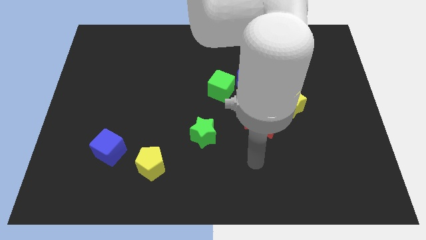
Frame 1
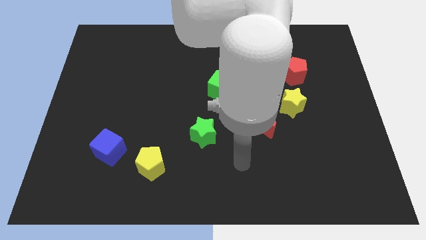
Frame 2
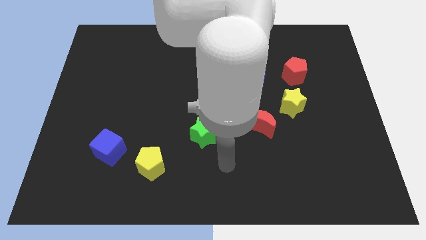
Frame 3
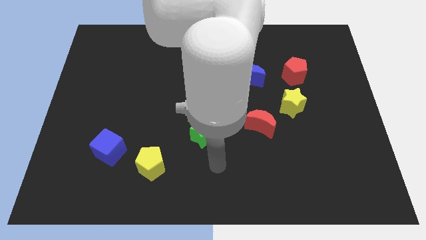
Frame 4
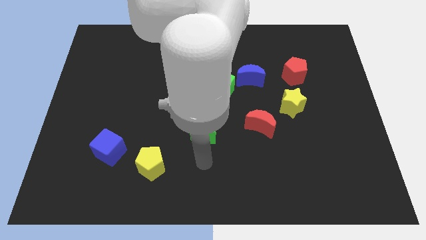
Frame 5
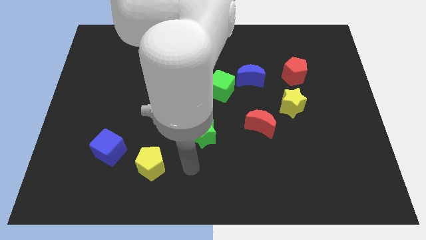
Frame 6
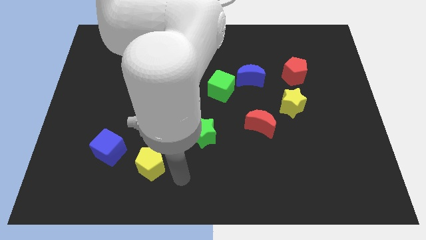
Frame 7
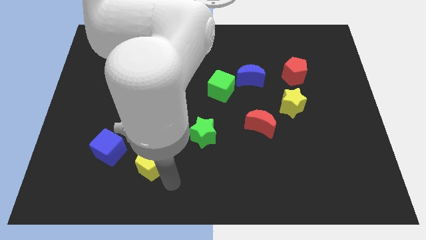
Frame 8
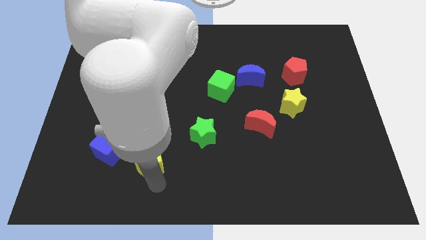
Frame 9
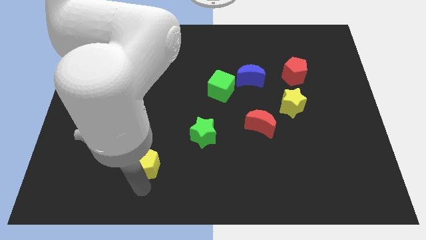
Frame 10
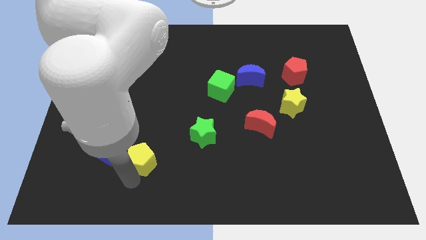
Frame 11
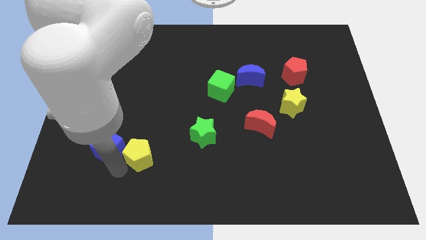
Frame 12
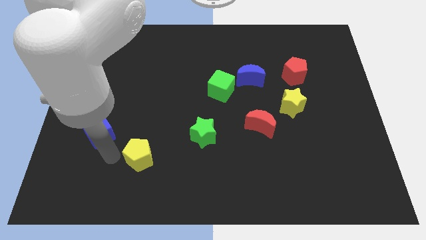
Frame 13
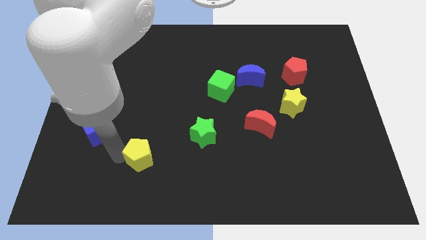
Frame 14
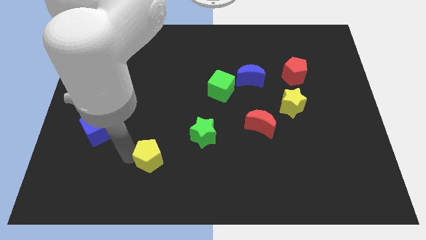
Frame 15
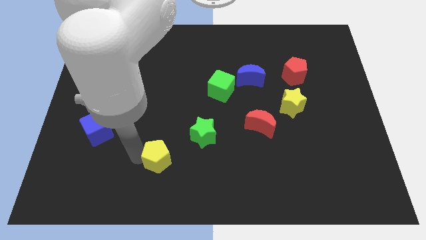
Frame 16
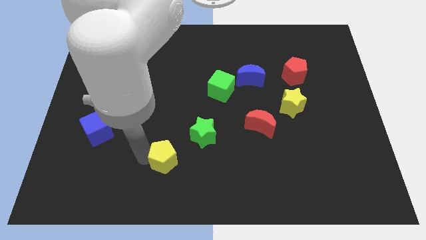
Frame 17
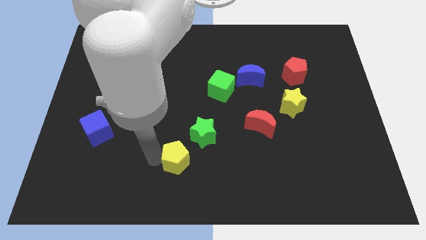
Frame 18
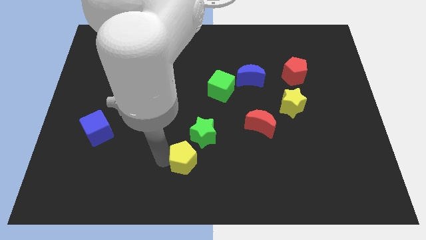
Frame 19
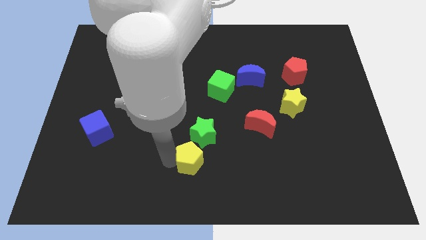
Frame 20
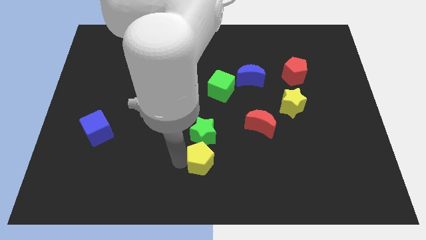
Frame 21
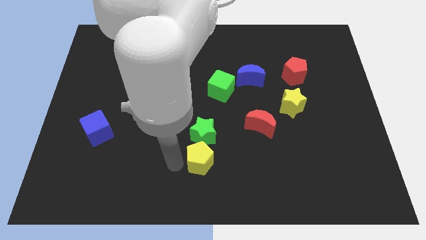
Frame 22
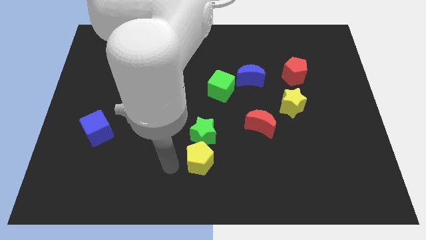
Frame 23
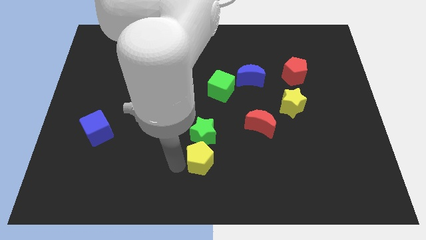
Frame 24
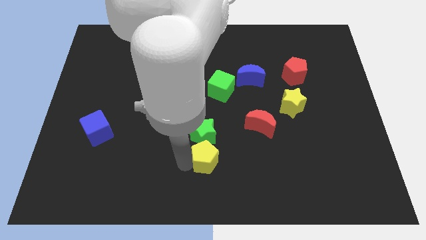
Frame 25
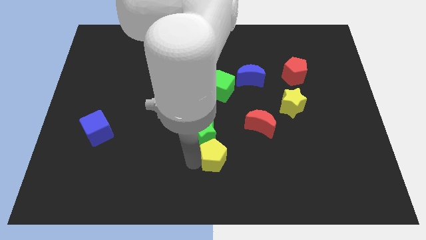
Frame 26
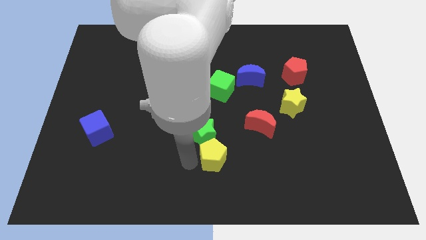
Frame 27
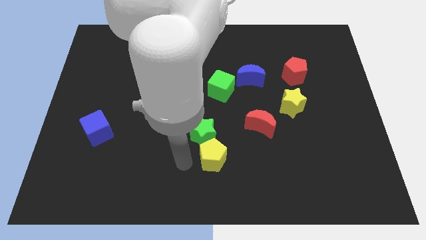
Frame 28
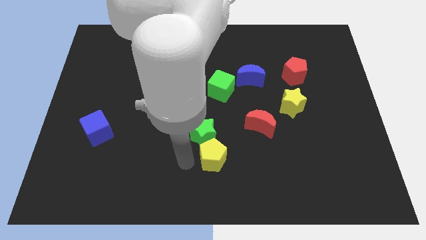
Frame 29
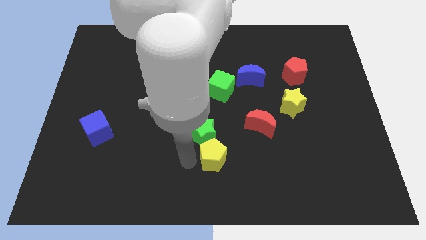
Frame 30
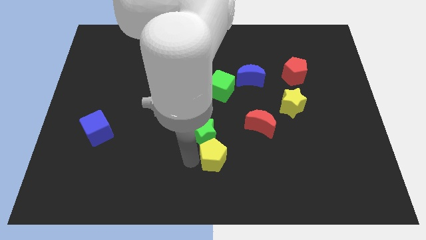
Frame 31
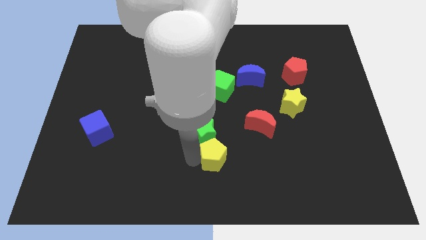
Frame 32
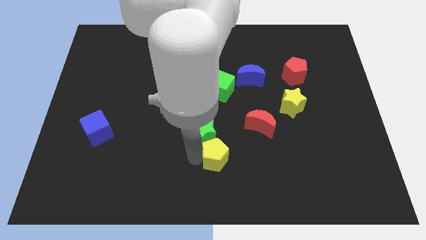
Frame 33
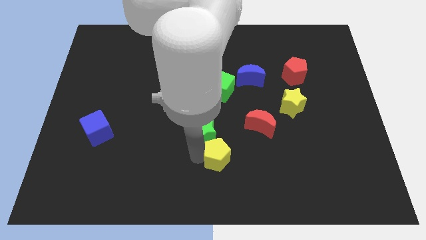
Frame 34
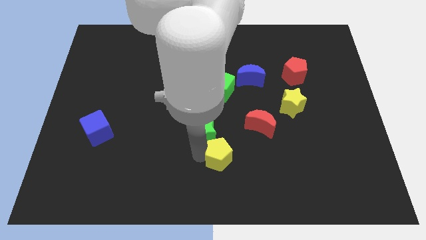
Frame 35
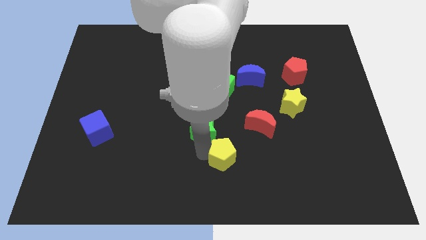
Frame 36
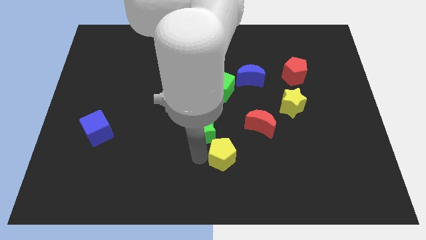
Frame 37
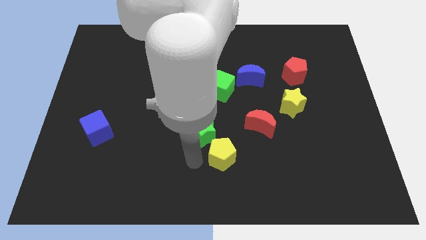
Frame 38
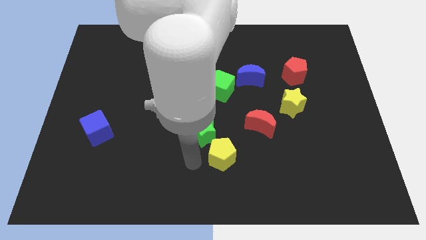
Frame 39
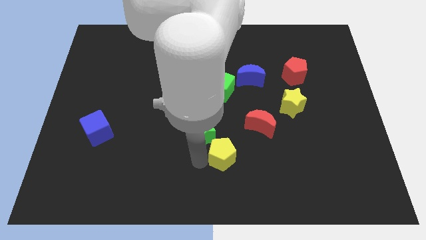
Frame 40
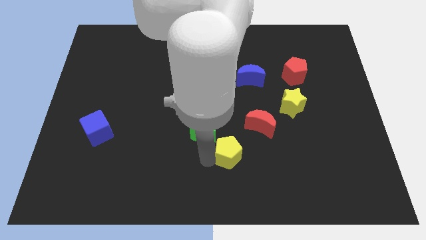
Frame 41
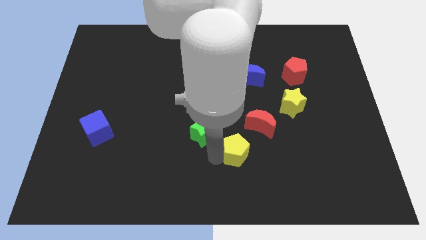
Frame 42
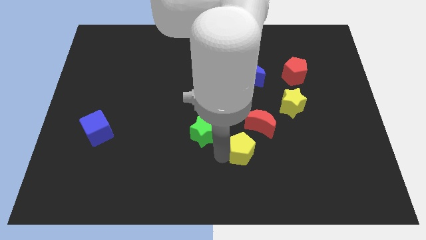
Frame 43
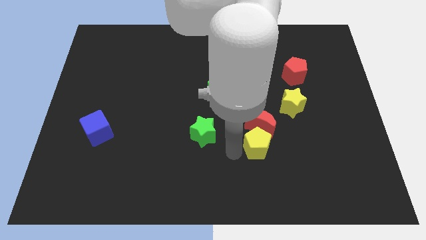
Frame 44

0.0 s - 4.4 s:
push the yellow pentagon to the bottom right of the red moon

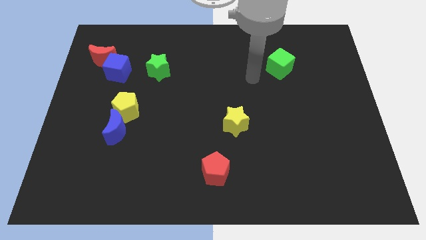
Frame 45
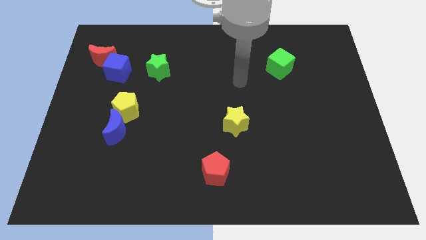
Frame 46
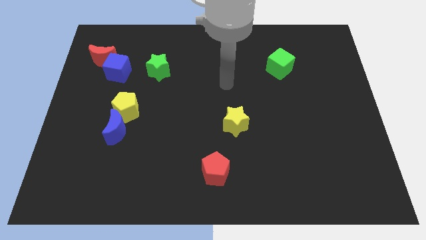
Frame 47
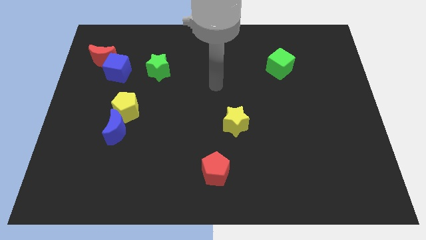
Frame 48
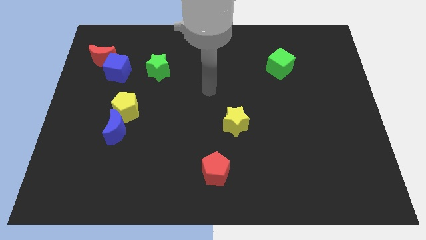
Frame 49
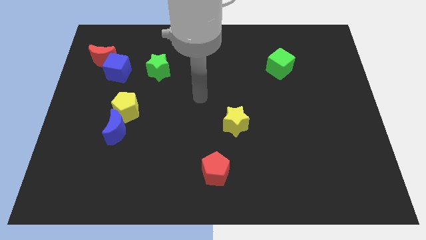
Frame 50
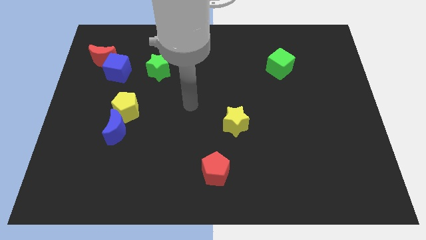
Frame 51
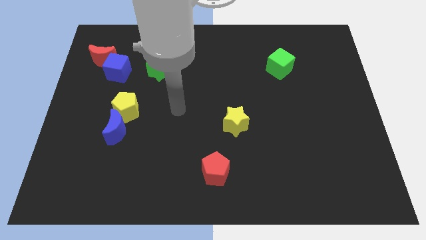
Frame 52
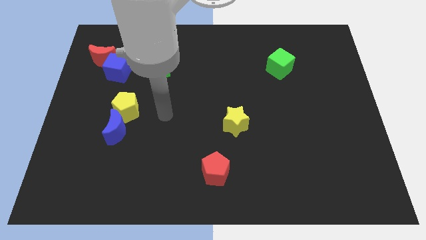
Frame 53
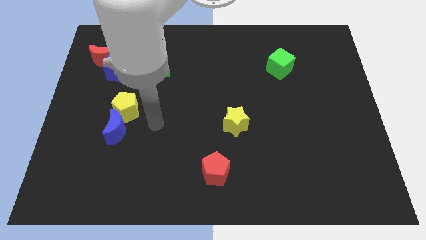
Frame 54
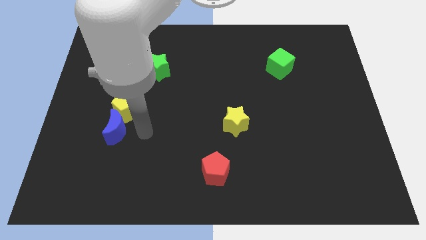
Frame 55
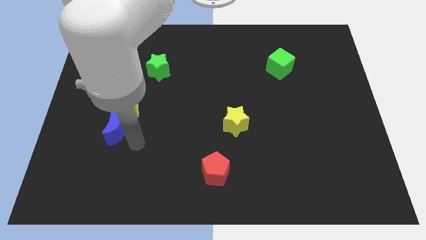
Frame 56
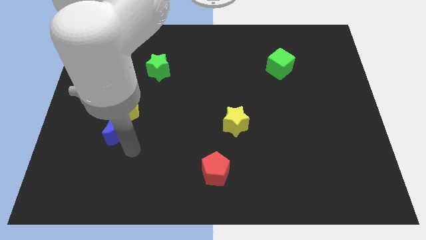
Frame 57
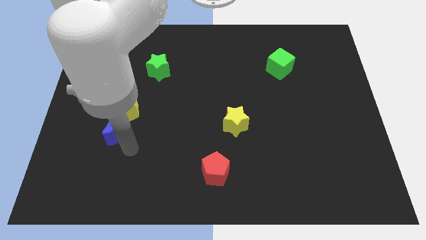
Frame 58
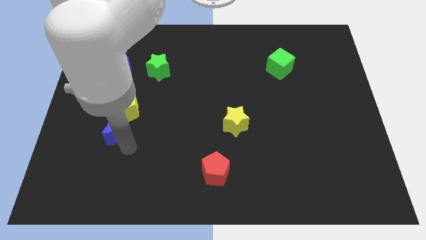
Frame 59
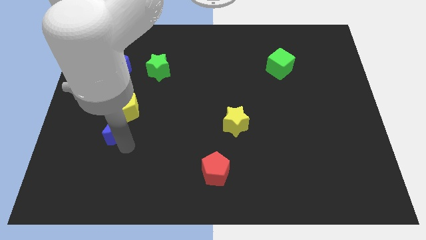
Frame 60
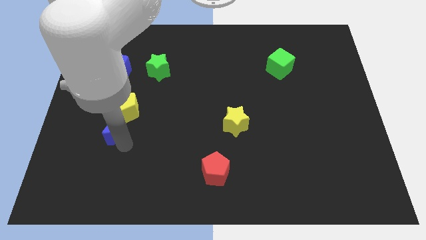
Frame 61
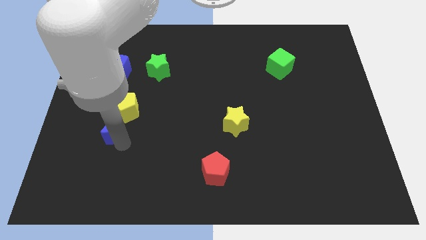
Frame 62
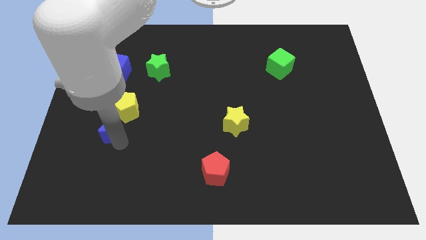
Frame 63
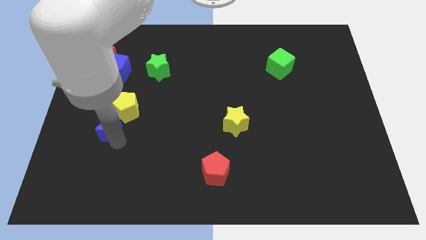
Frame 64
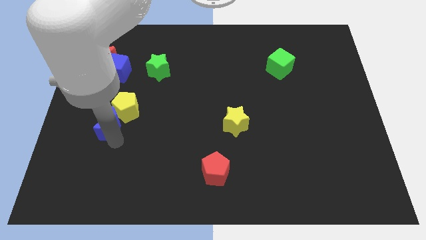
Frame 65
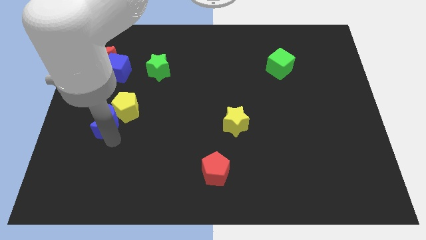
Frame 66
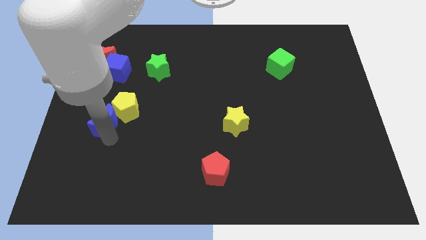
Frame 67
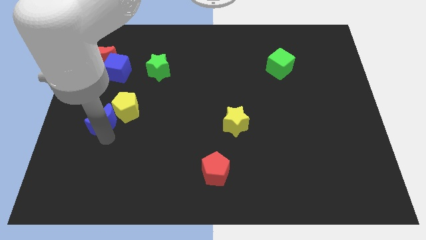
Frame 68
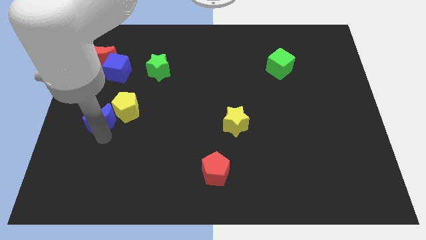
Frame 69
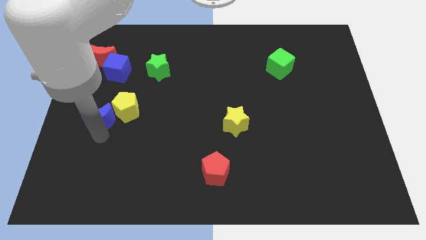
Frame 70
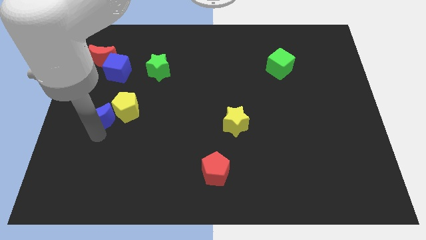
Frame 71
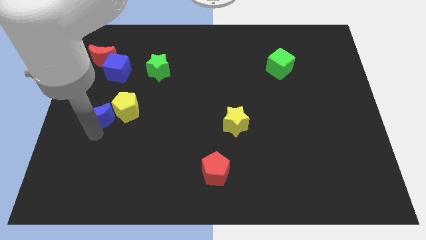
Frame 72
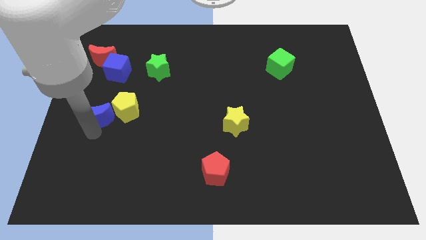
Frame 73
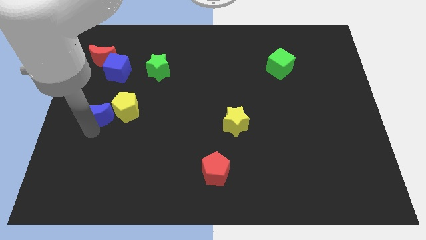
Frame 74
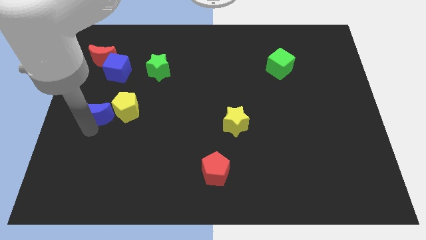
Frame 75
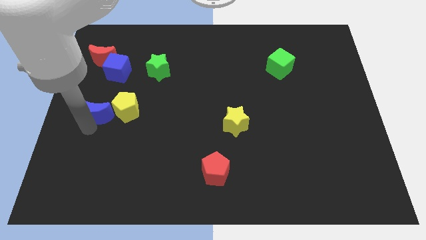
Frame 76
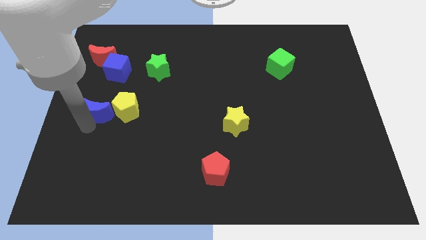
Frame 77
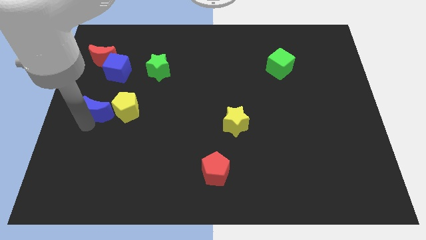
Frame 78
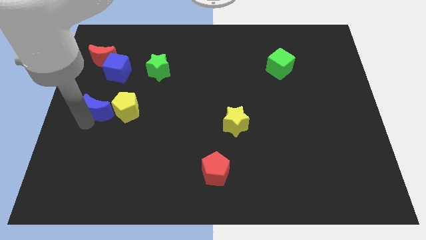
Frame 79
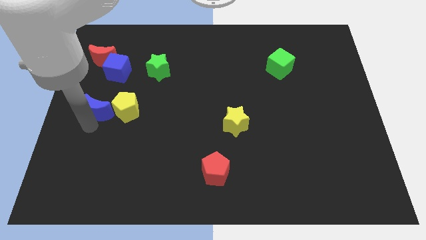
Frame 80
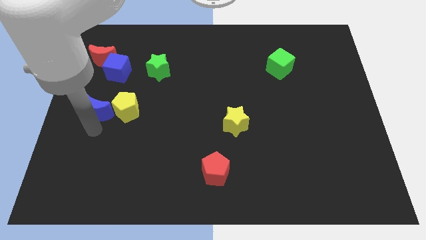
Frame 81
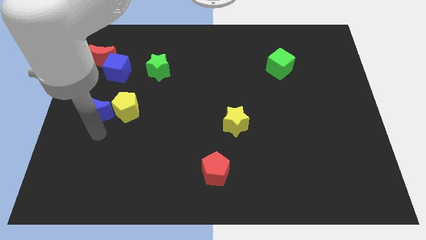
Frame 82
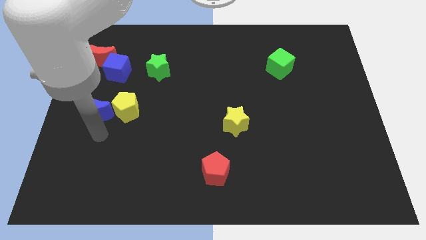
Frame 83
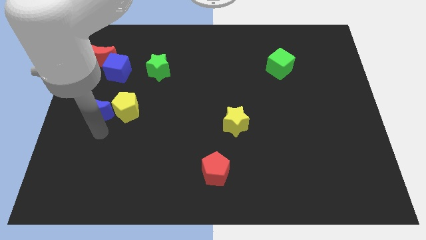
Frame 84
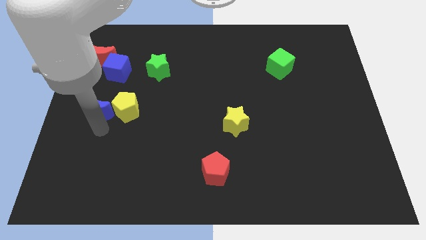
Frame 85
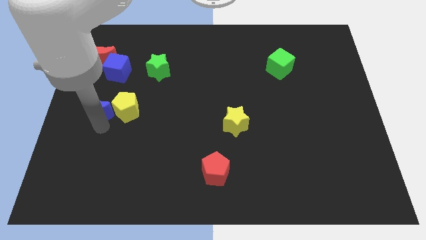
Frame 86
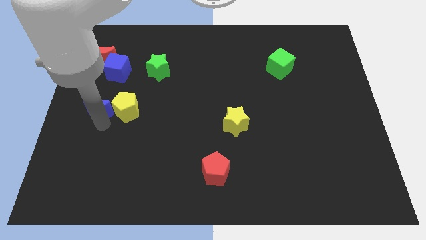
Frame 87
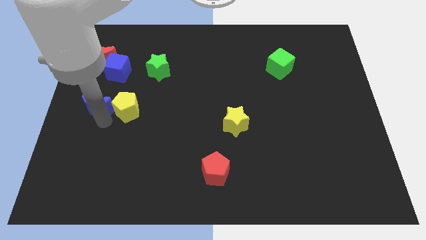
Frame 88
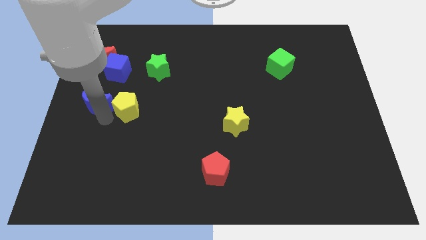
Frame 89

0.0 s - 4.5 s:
push the blue moon to the bottom of the red moon
